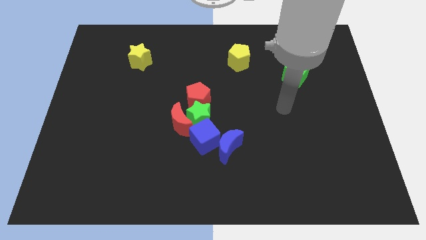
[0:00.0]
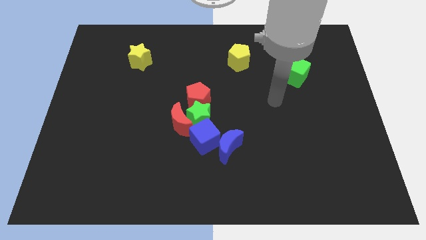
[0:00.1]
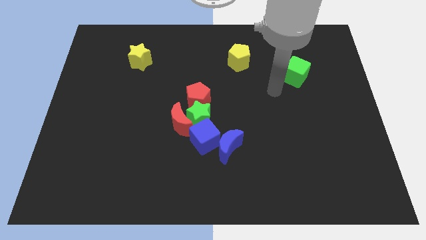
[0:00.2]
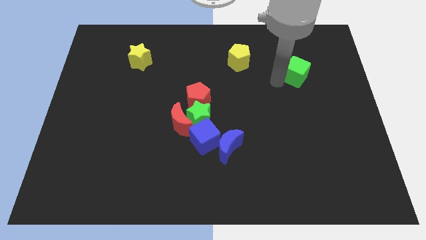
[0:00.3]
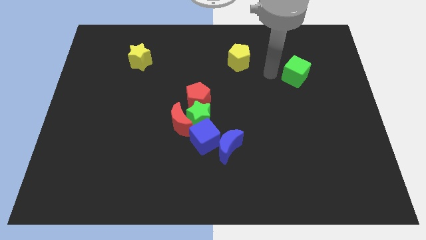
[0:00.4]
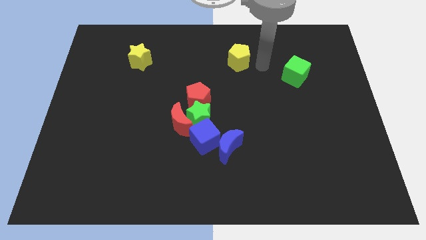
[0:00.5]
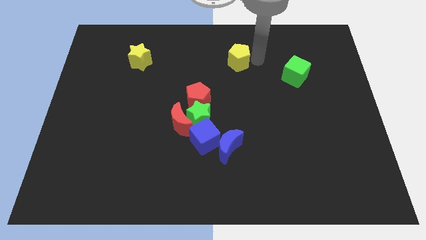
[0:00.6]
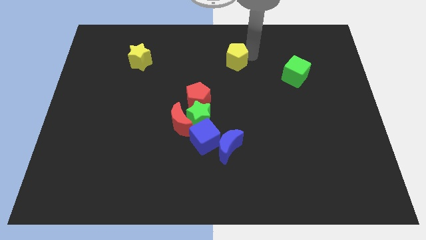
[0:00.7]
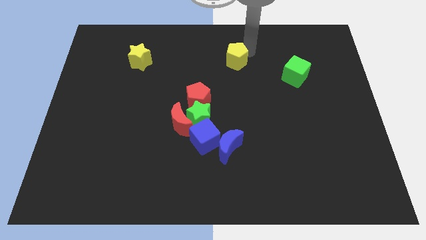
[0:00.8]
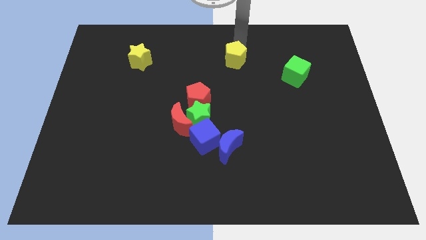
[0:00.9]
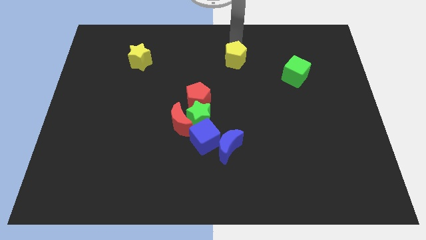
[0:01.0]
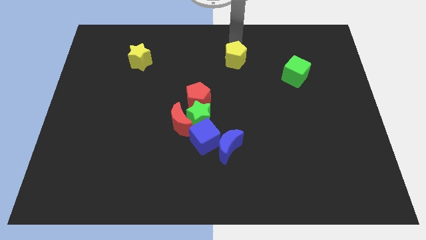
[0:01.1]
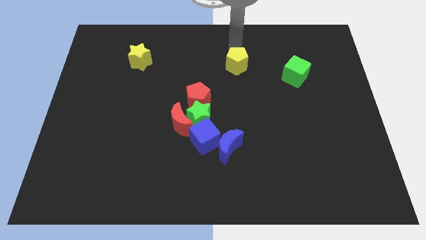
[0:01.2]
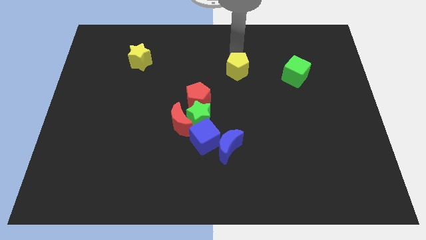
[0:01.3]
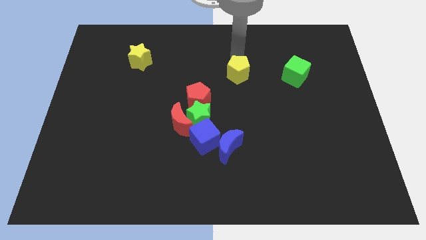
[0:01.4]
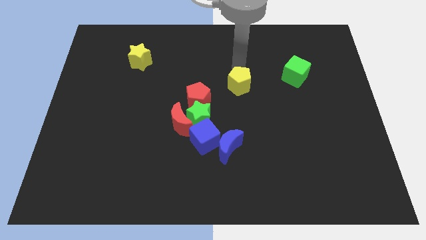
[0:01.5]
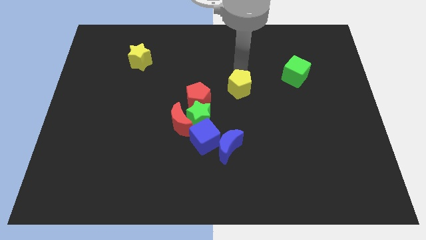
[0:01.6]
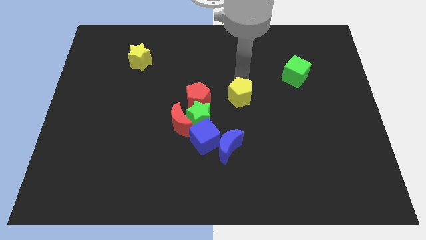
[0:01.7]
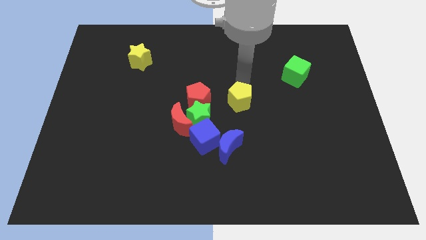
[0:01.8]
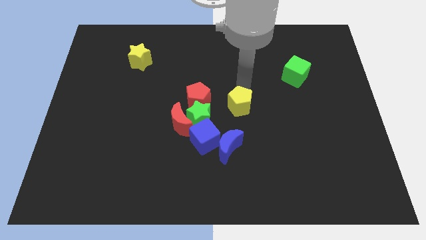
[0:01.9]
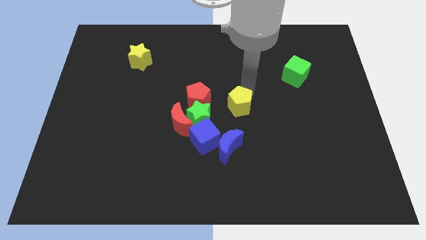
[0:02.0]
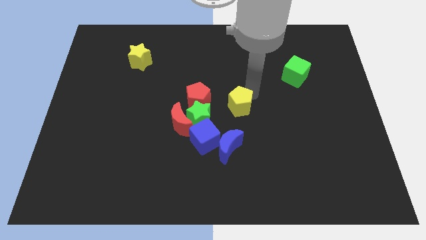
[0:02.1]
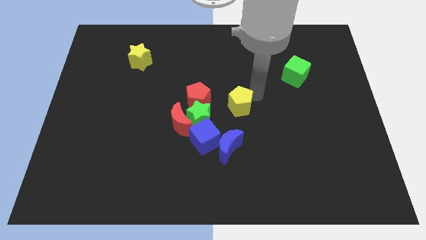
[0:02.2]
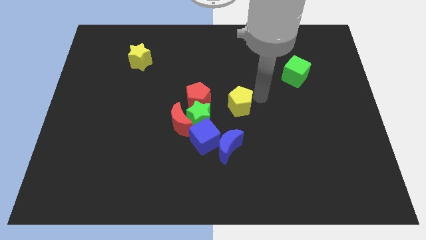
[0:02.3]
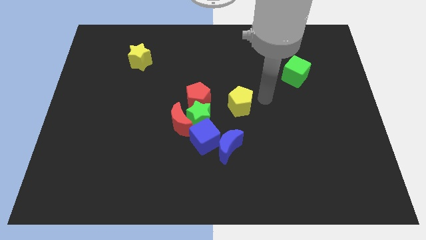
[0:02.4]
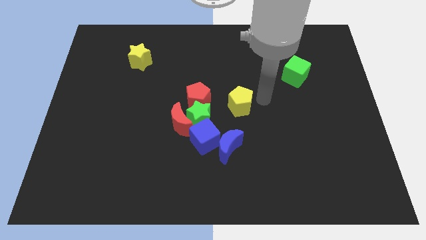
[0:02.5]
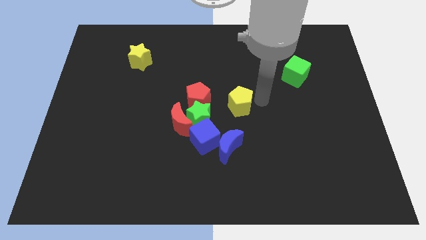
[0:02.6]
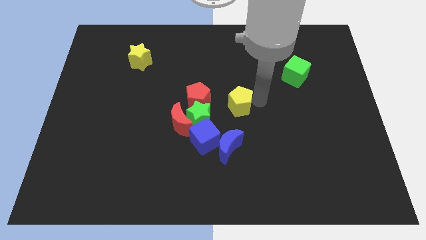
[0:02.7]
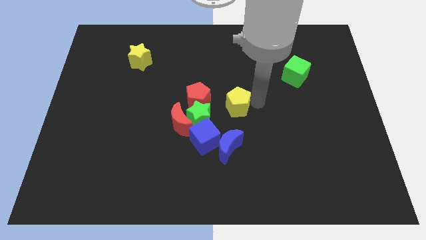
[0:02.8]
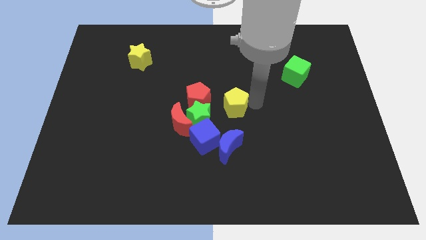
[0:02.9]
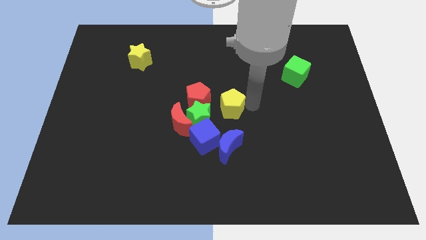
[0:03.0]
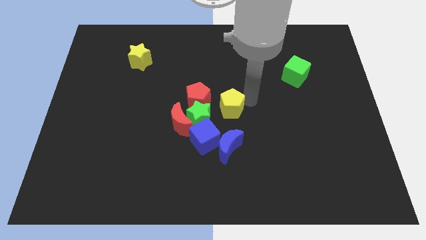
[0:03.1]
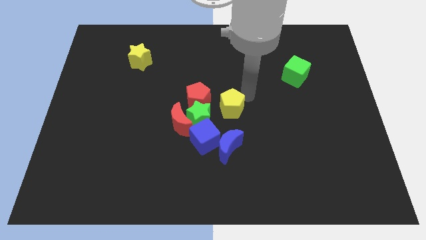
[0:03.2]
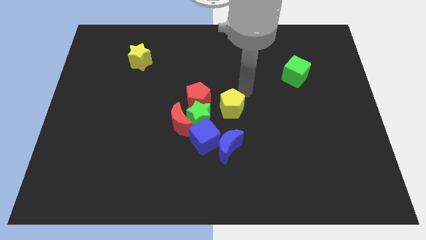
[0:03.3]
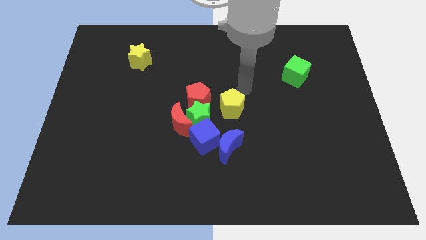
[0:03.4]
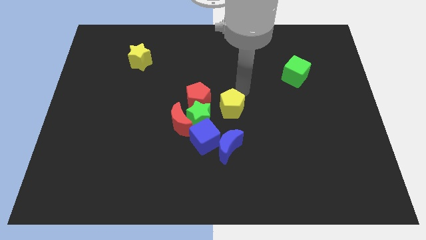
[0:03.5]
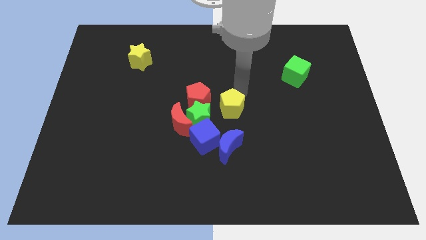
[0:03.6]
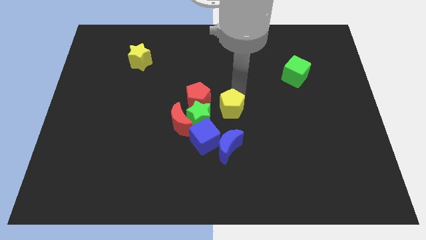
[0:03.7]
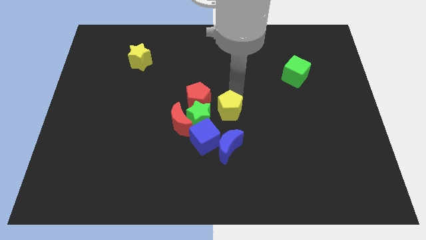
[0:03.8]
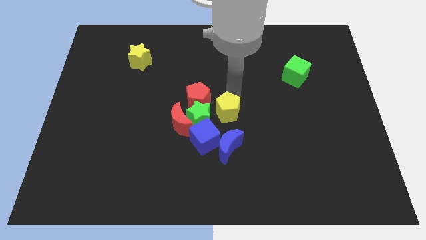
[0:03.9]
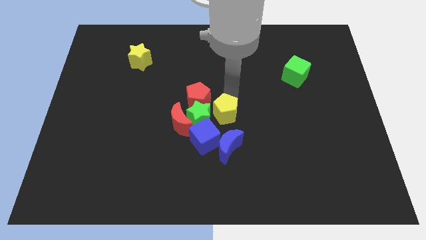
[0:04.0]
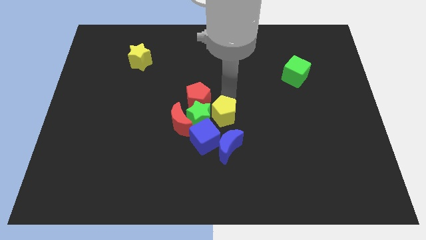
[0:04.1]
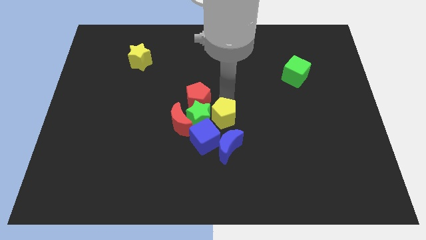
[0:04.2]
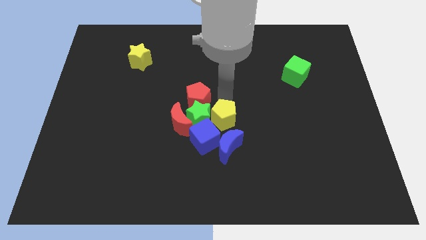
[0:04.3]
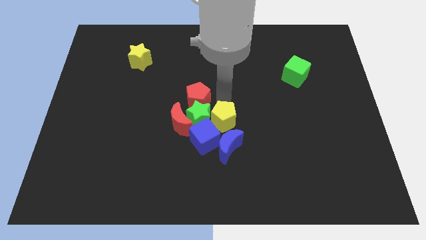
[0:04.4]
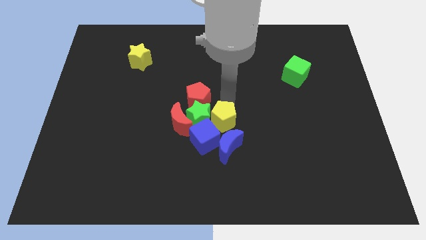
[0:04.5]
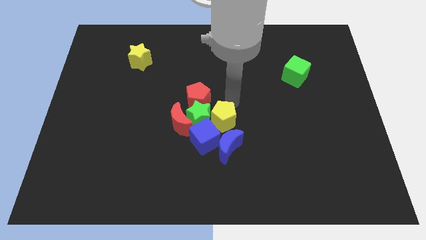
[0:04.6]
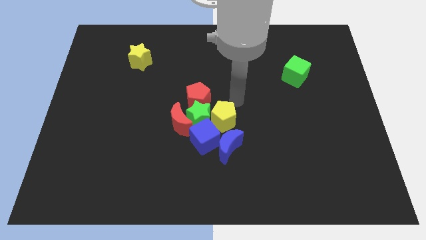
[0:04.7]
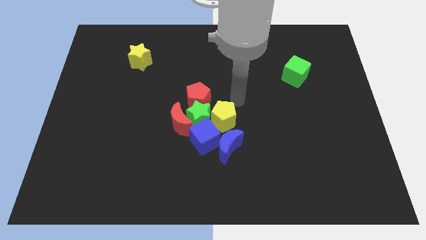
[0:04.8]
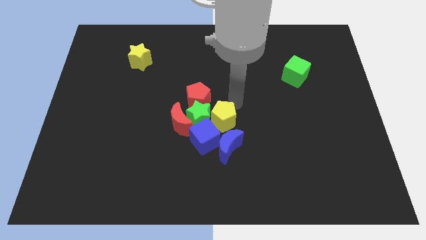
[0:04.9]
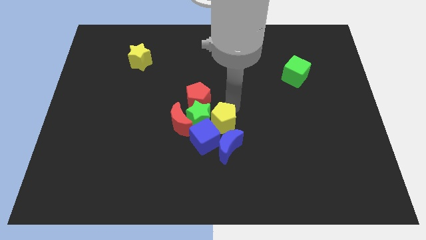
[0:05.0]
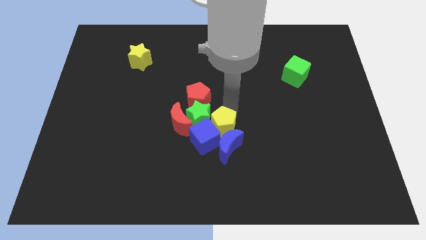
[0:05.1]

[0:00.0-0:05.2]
slide the yellow pentagon towards the blue cube

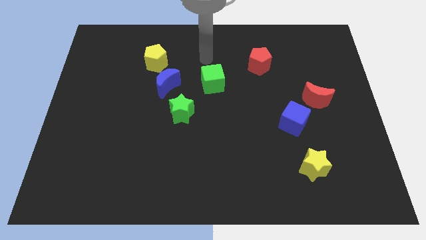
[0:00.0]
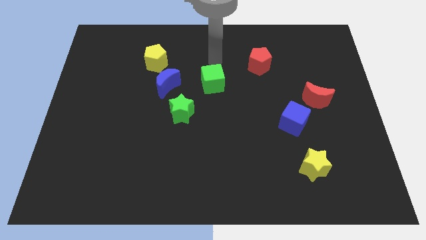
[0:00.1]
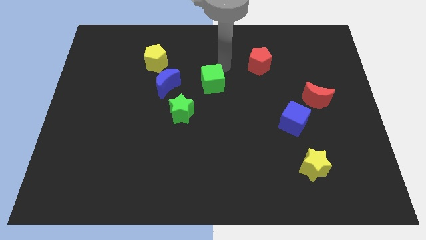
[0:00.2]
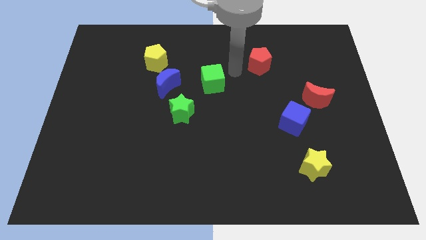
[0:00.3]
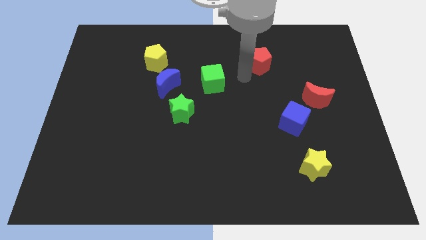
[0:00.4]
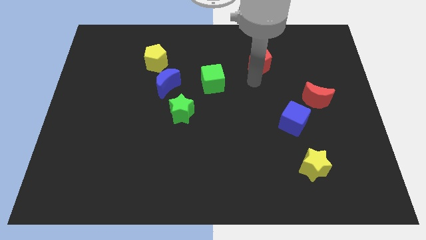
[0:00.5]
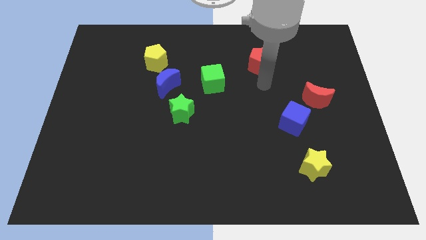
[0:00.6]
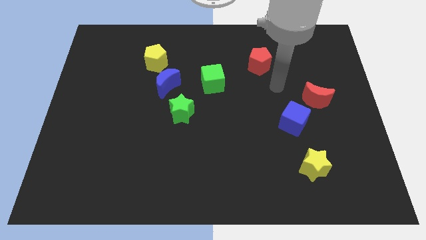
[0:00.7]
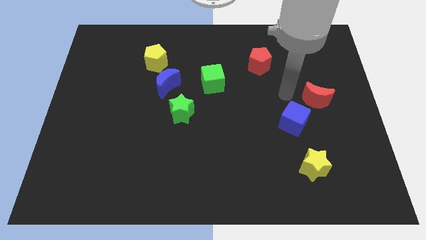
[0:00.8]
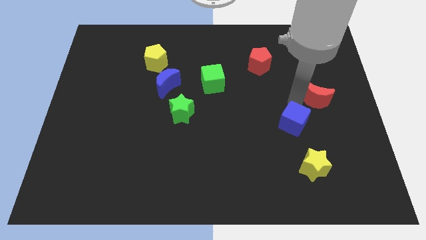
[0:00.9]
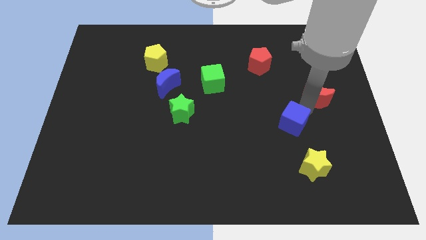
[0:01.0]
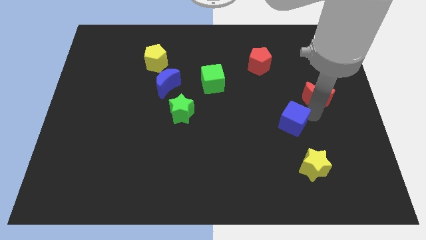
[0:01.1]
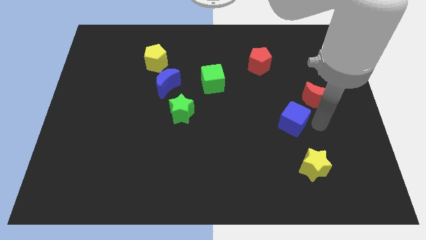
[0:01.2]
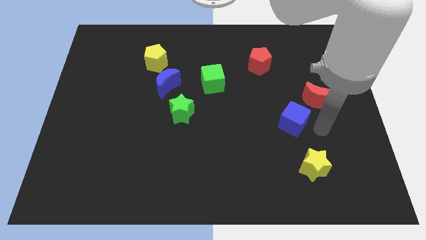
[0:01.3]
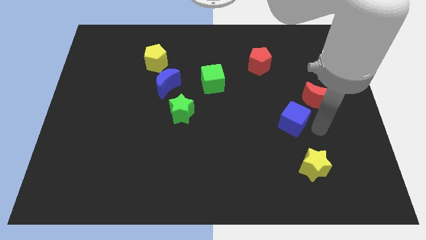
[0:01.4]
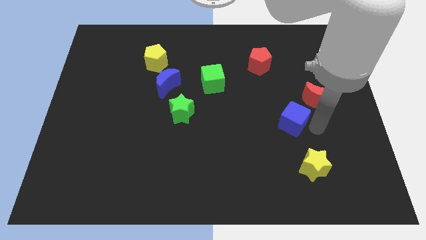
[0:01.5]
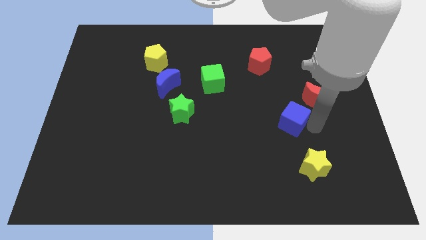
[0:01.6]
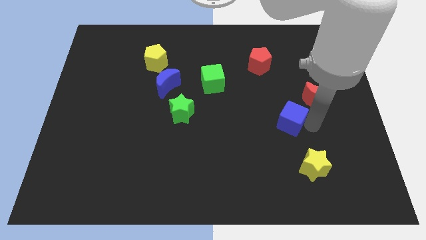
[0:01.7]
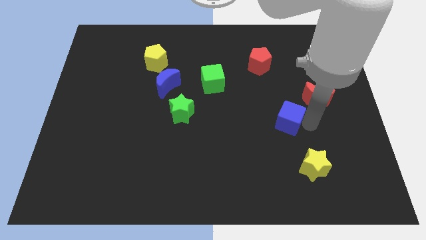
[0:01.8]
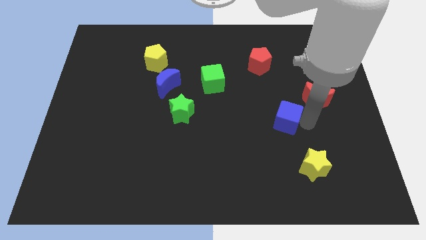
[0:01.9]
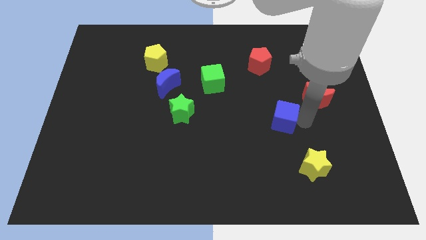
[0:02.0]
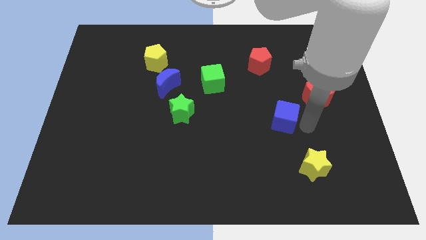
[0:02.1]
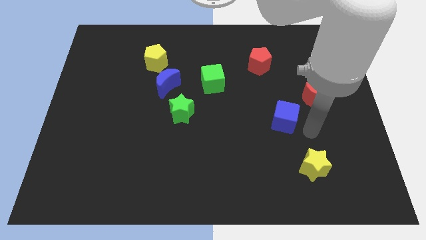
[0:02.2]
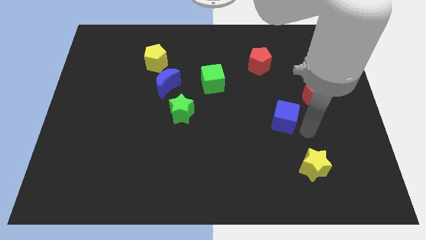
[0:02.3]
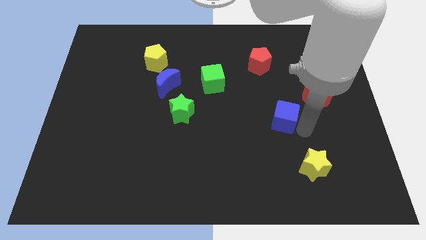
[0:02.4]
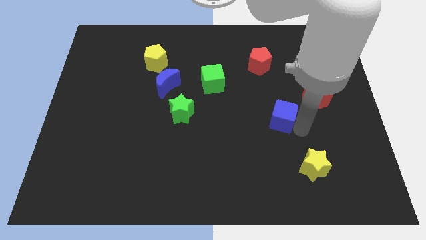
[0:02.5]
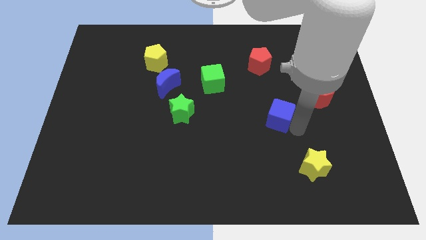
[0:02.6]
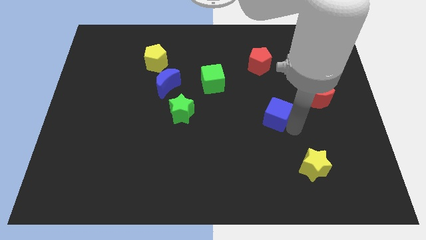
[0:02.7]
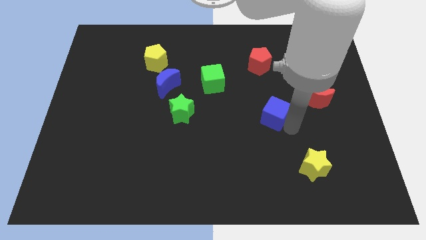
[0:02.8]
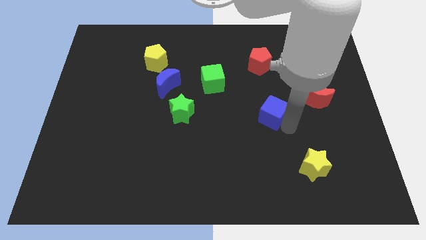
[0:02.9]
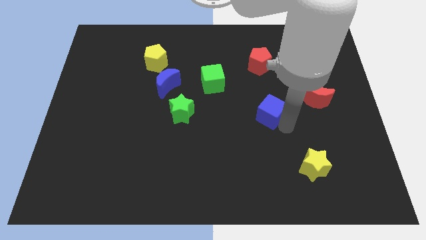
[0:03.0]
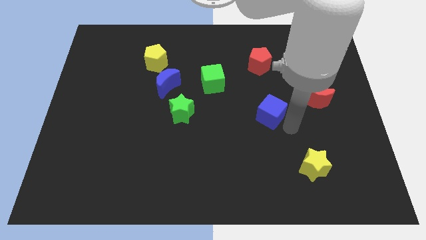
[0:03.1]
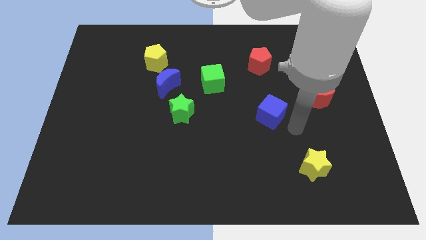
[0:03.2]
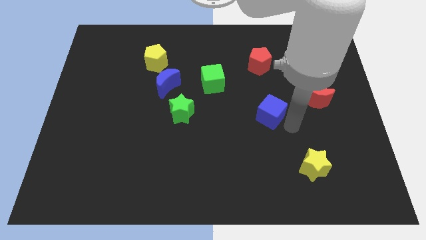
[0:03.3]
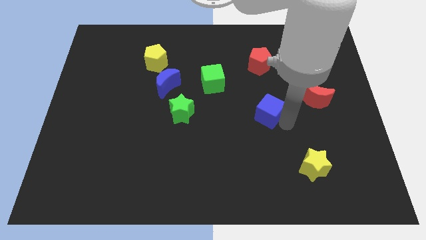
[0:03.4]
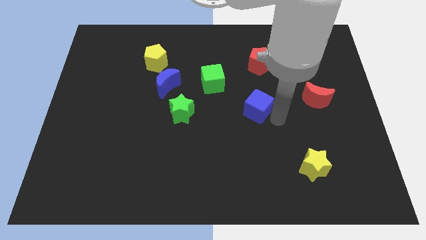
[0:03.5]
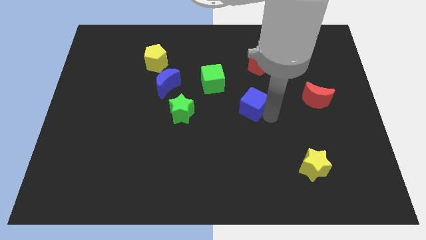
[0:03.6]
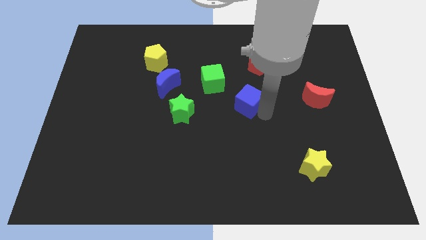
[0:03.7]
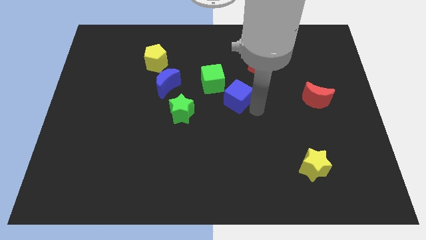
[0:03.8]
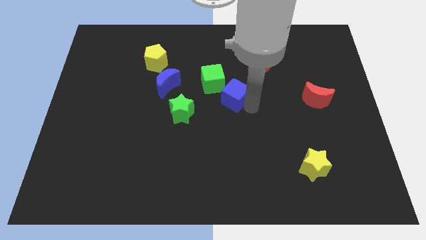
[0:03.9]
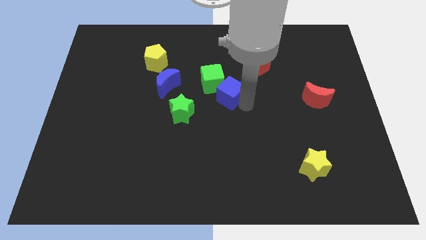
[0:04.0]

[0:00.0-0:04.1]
push the blue cube towards the green cube
